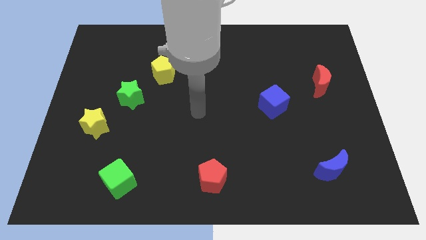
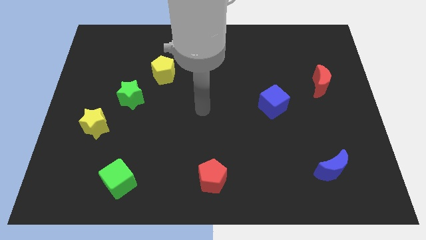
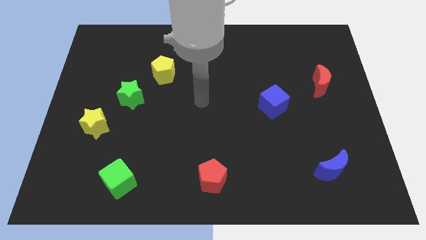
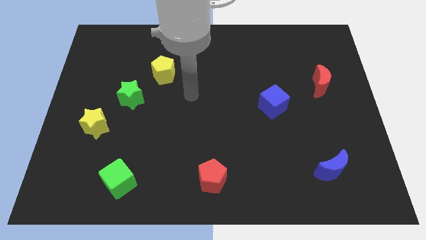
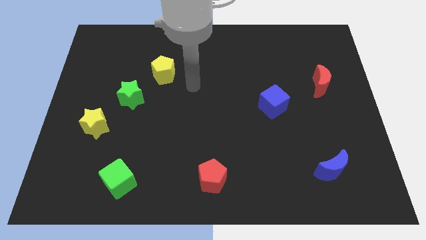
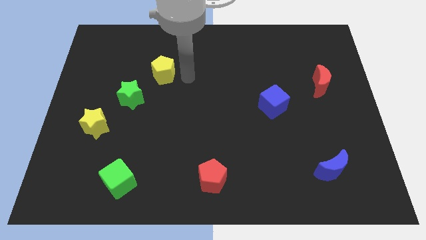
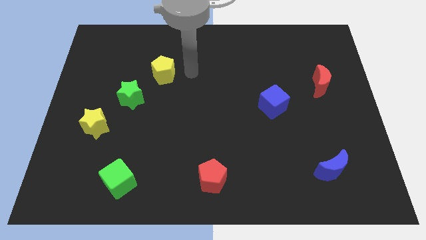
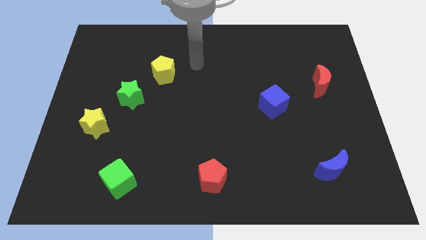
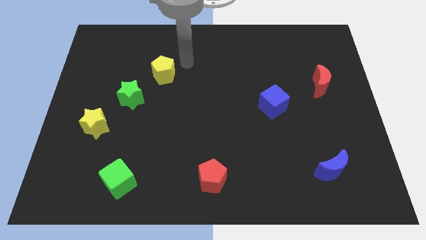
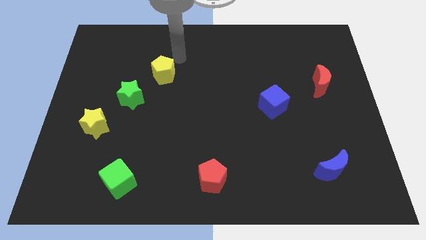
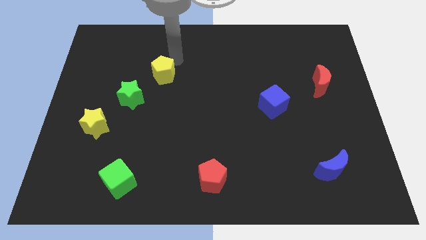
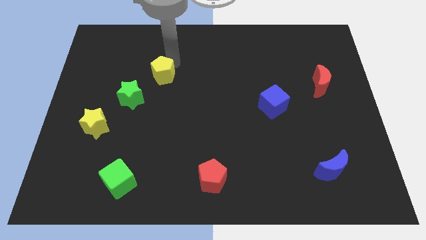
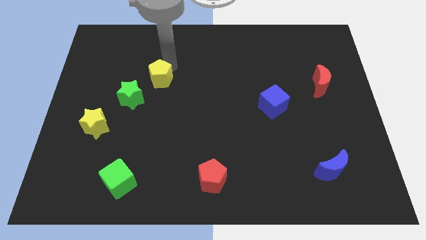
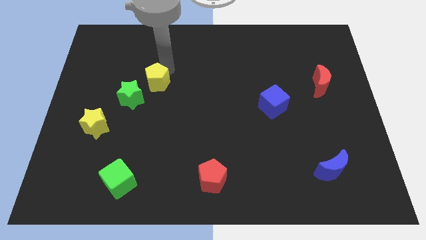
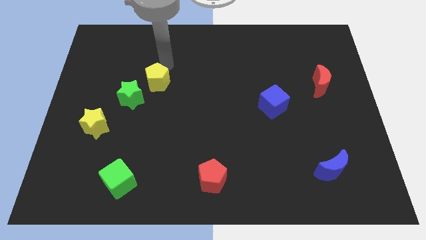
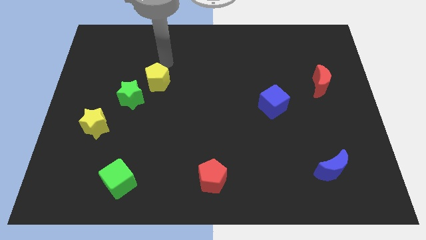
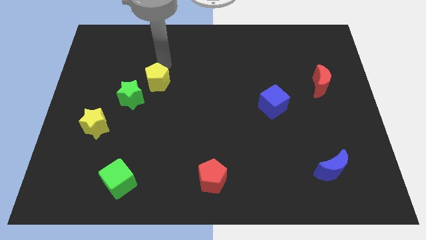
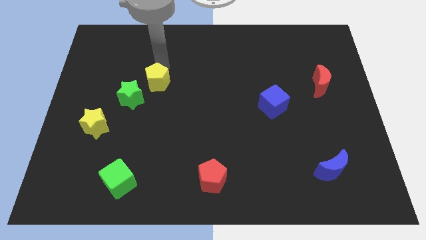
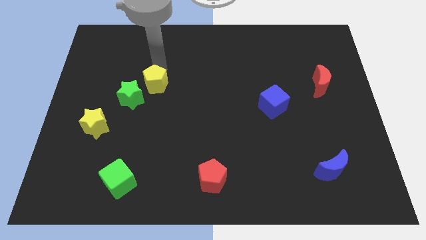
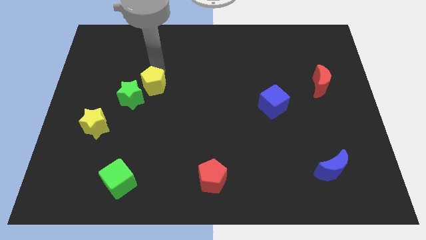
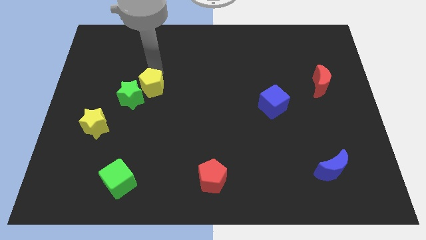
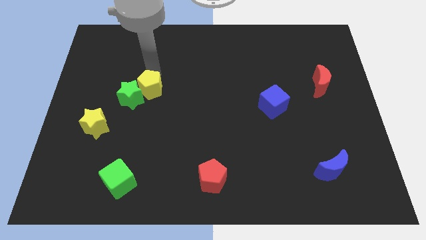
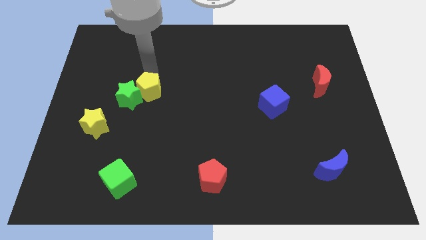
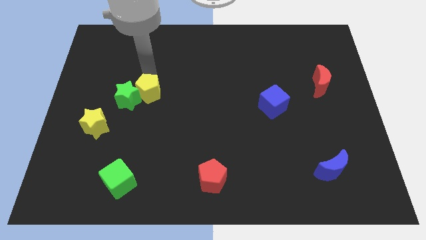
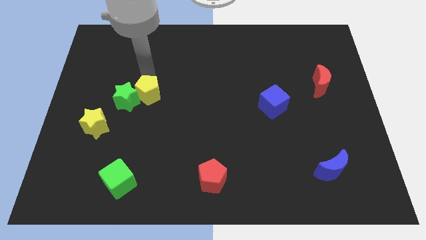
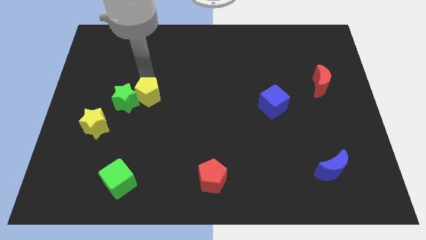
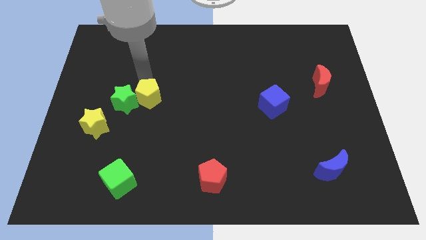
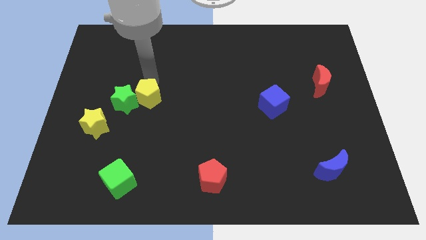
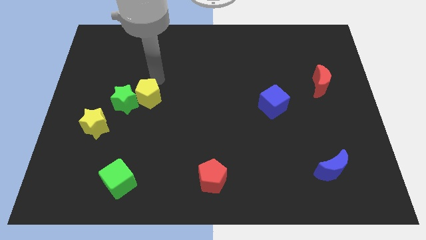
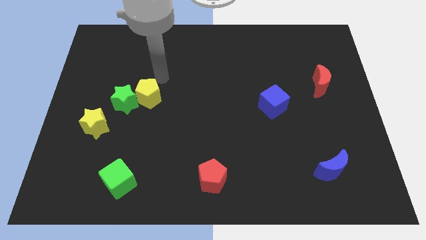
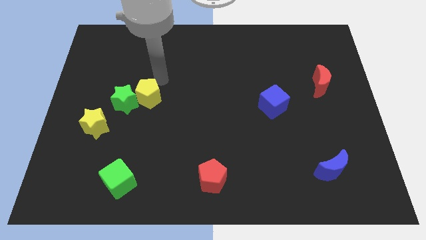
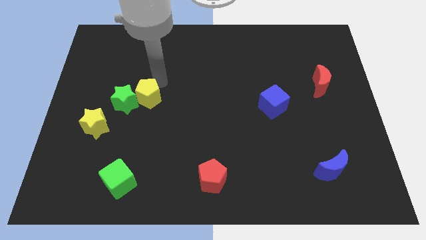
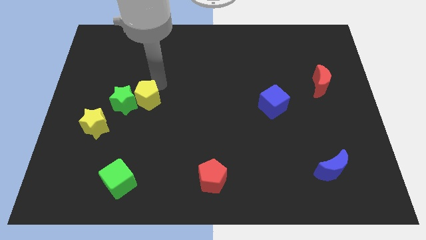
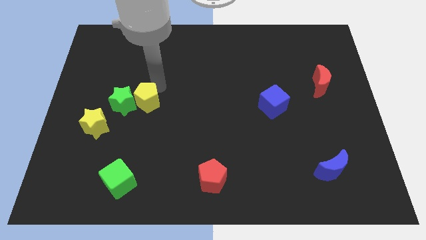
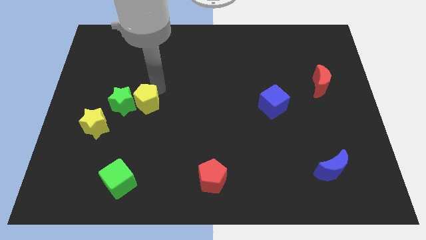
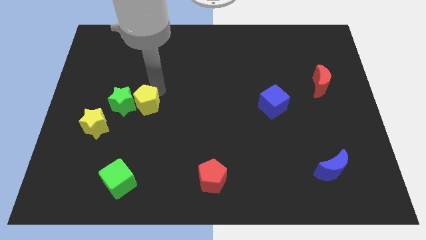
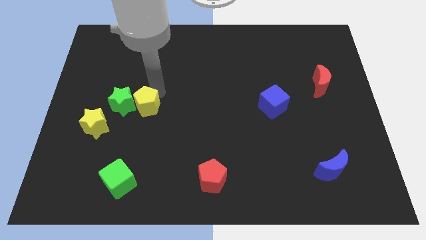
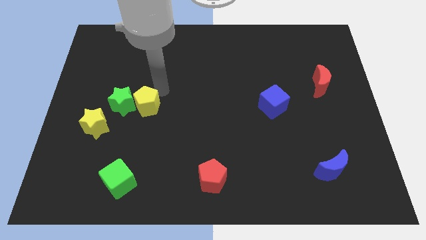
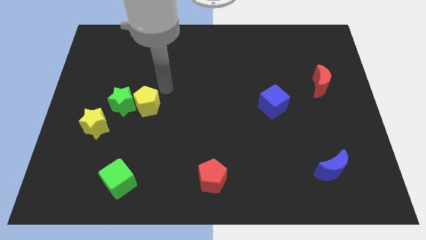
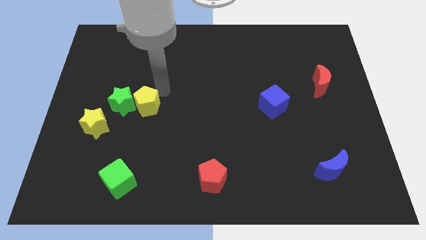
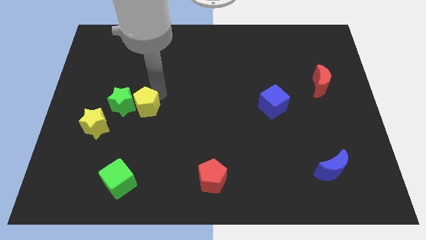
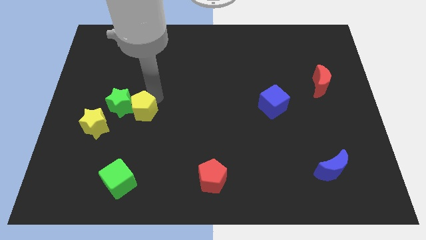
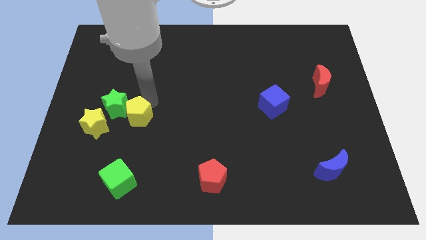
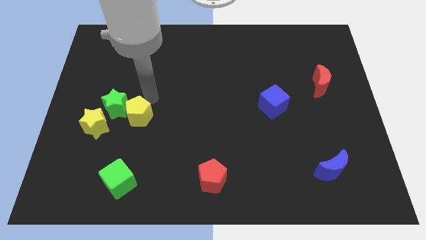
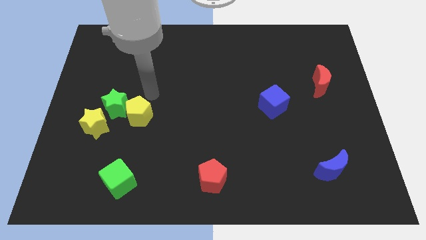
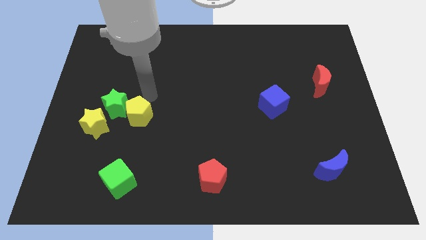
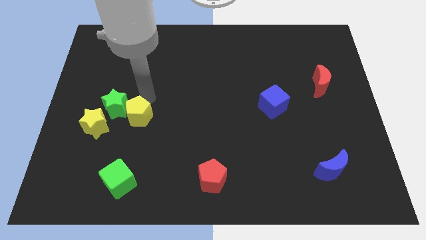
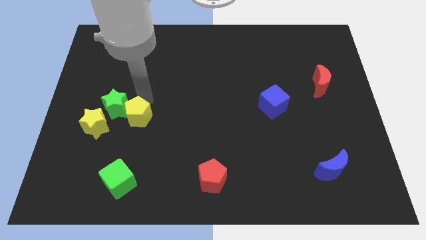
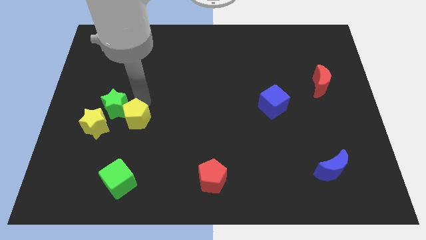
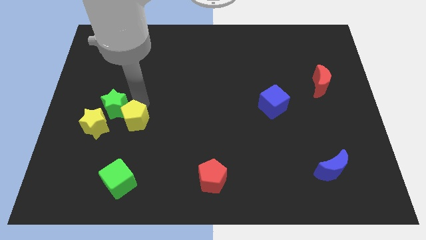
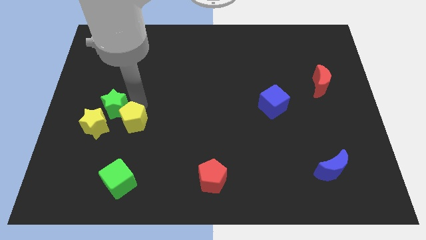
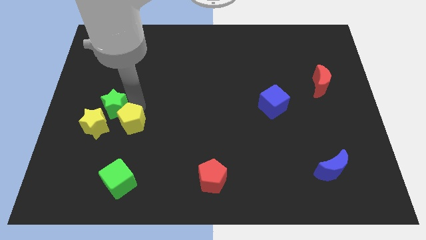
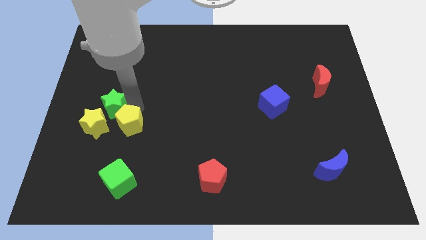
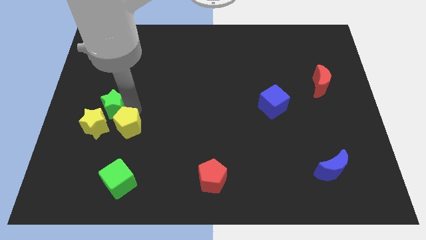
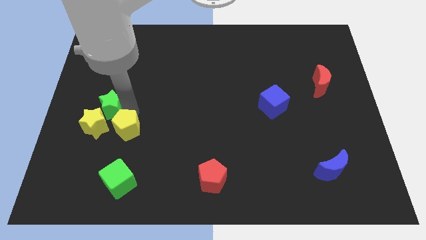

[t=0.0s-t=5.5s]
slide the yellow pentagon to the bottom right side of the yellow star

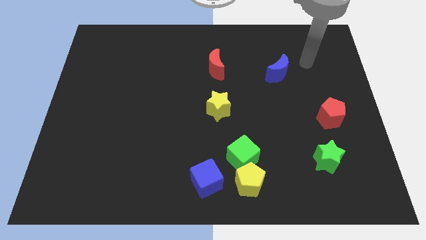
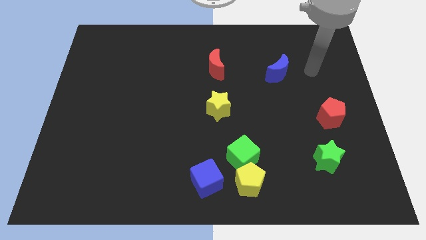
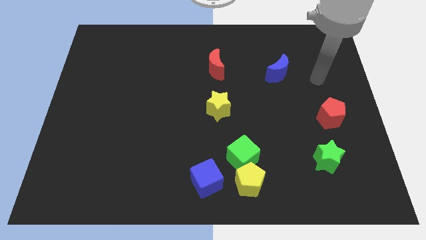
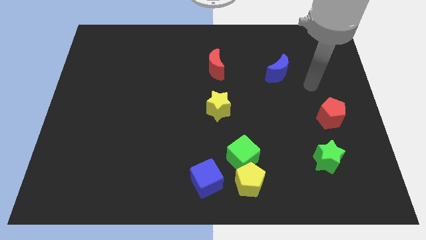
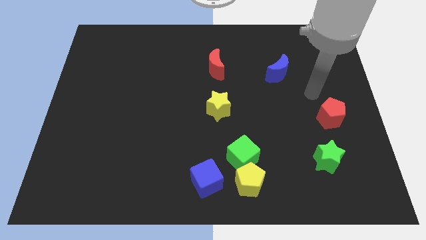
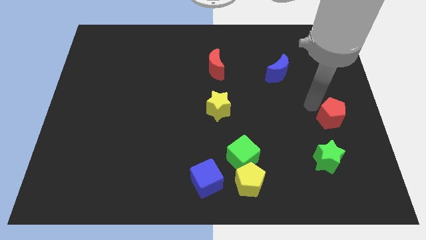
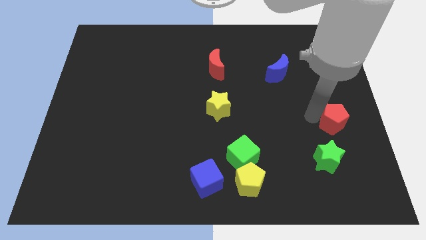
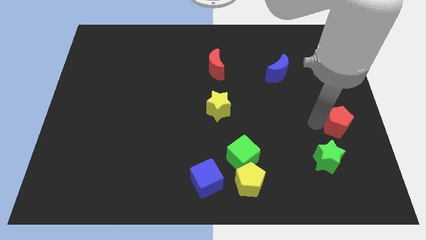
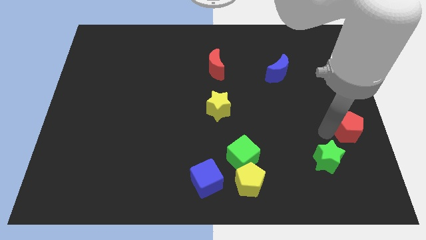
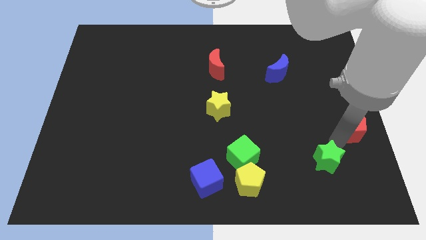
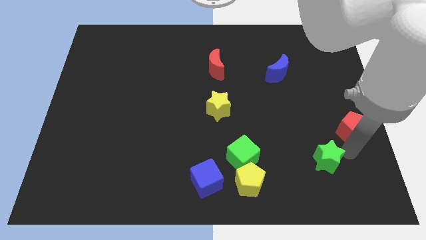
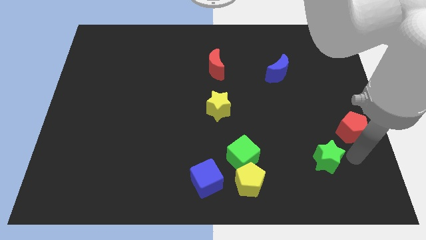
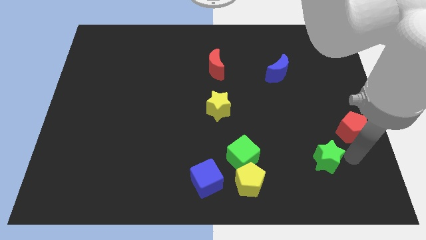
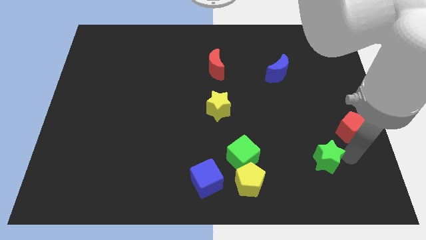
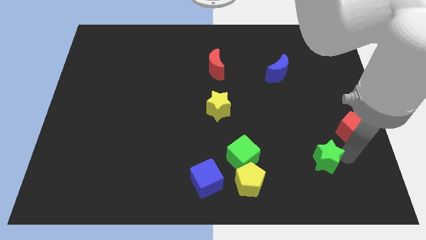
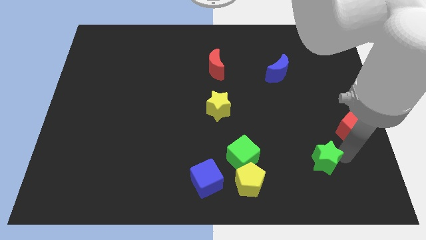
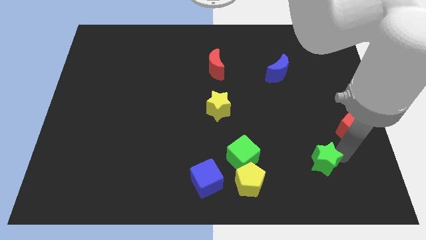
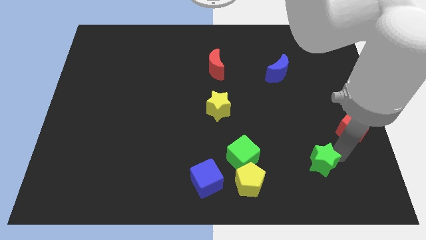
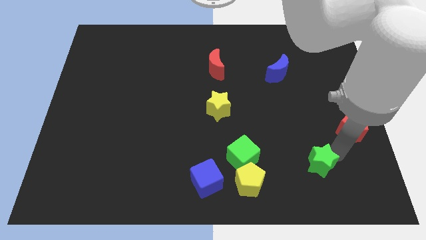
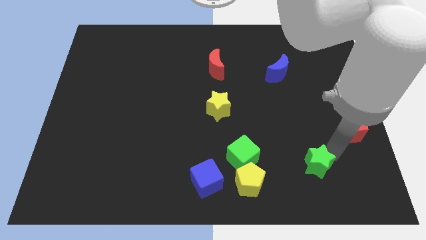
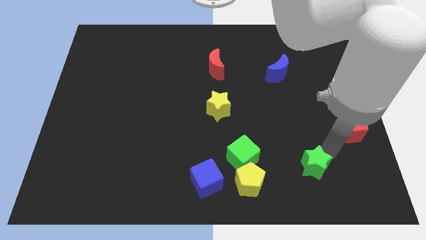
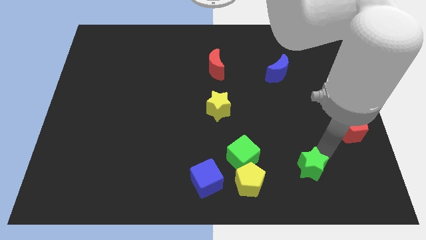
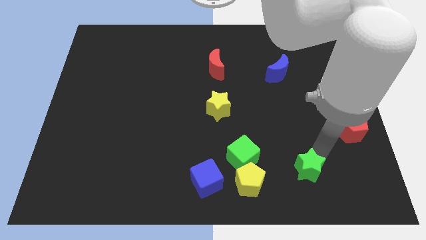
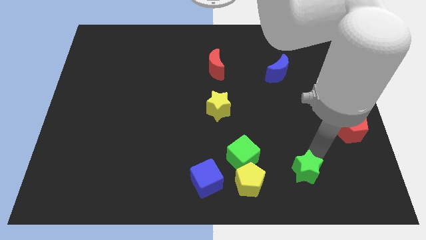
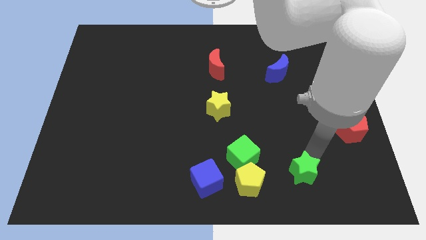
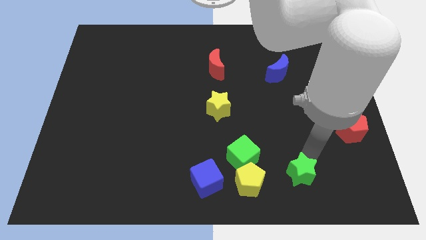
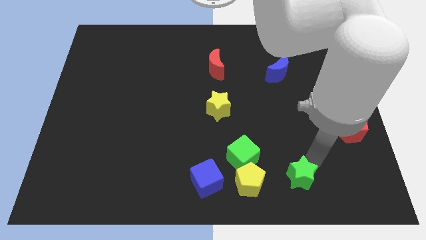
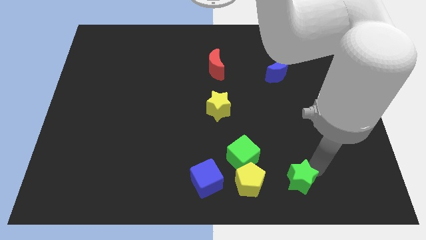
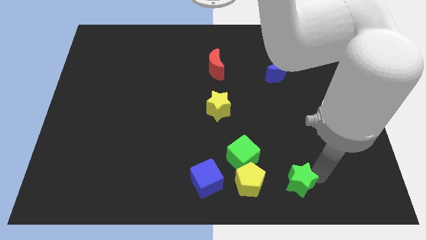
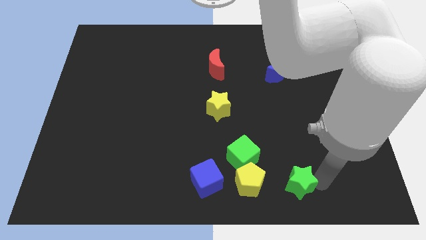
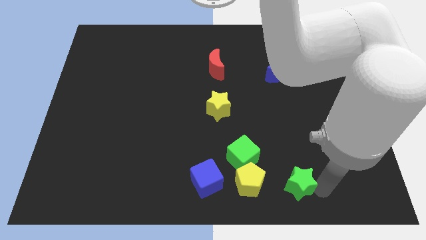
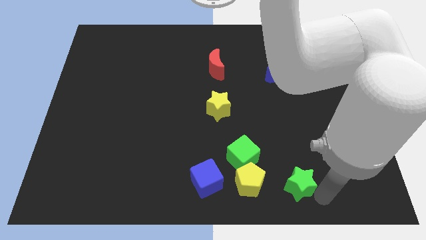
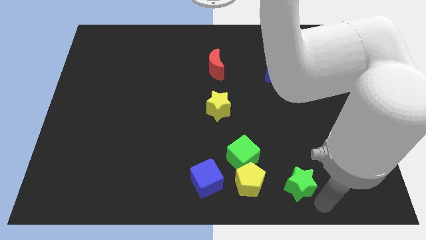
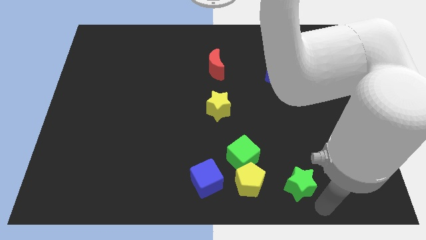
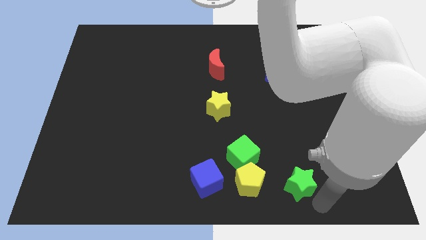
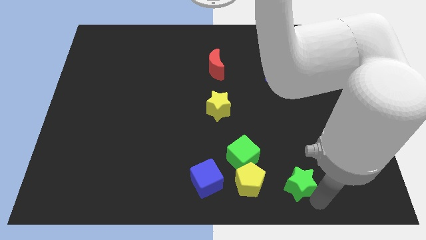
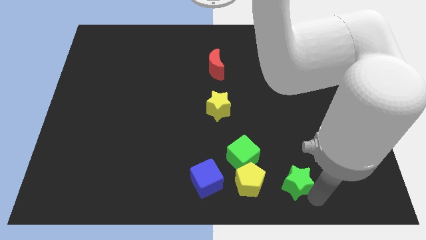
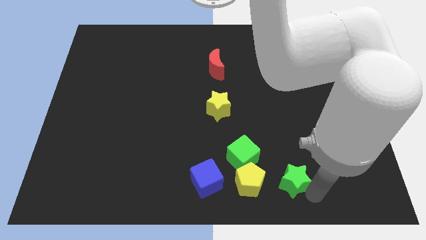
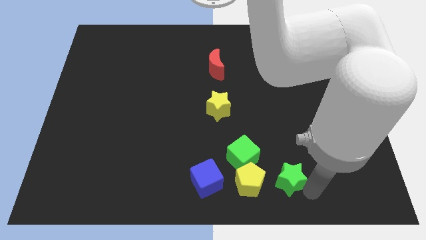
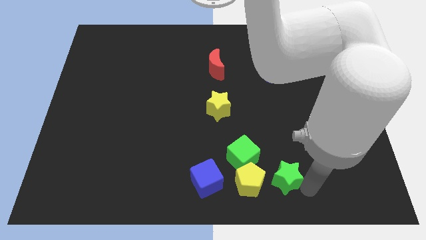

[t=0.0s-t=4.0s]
slide the green star diagonally up and to the right of the yellow pentagon
